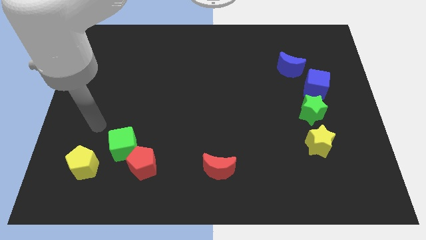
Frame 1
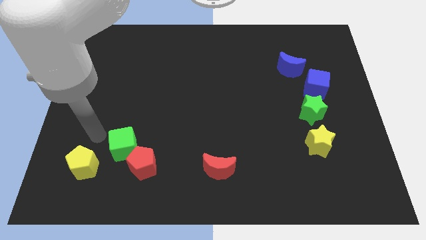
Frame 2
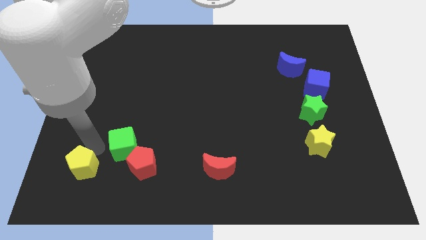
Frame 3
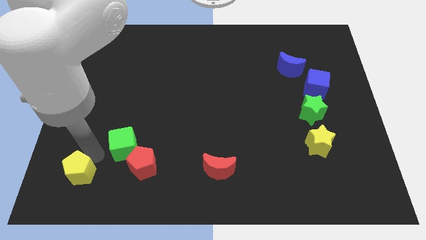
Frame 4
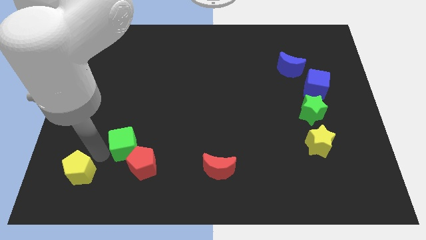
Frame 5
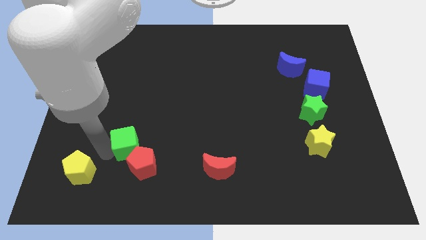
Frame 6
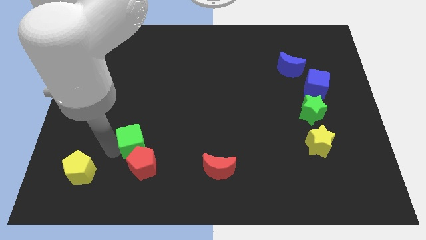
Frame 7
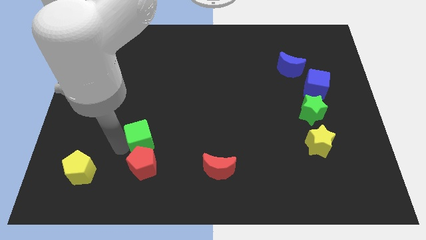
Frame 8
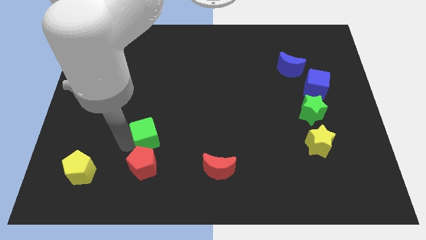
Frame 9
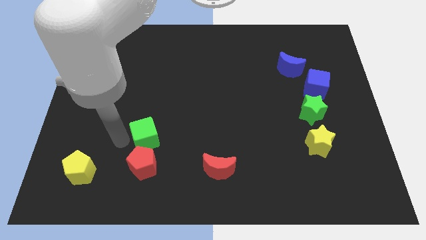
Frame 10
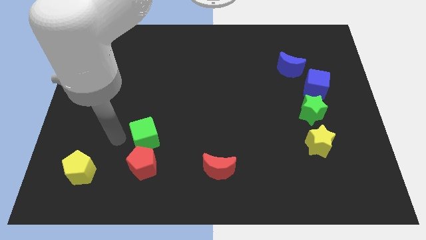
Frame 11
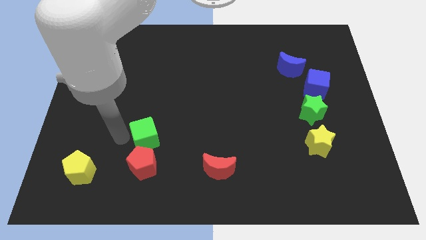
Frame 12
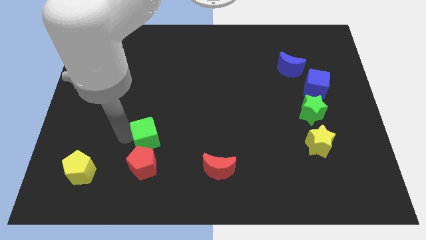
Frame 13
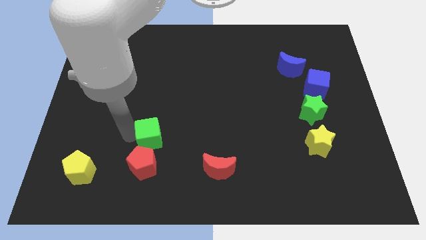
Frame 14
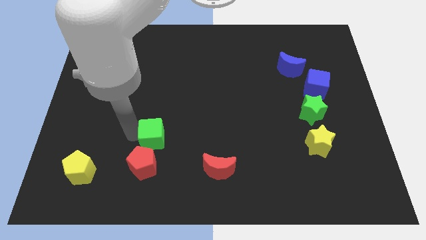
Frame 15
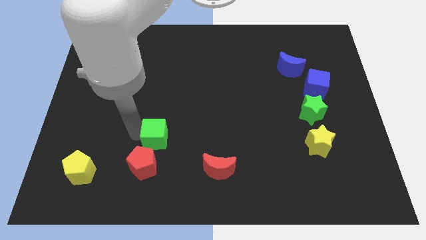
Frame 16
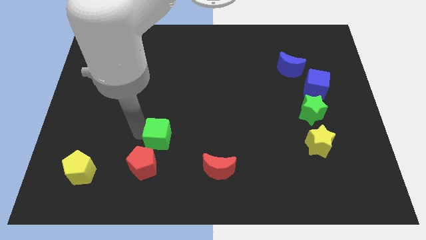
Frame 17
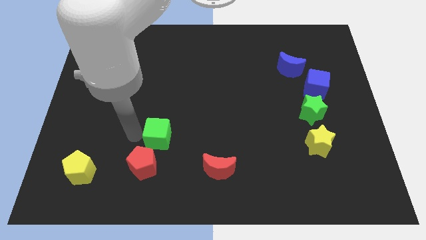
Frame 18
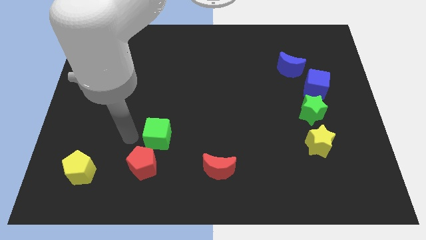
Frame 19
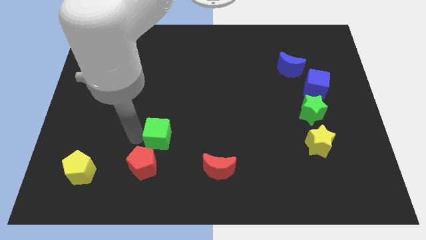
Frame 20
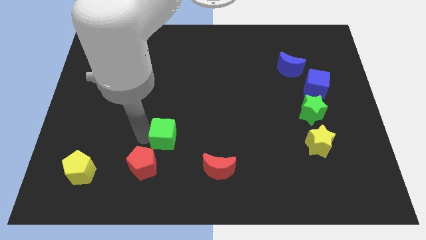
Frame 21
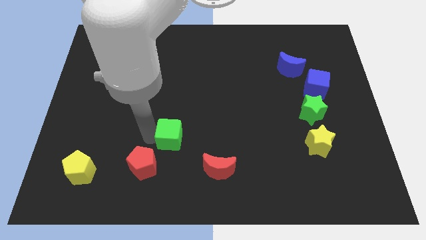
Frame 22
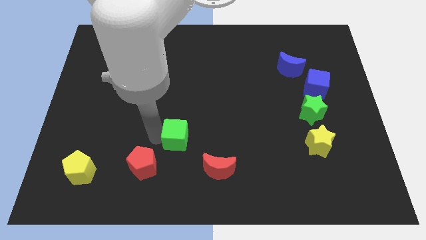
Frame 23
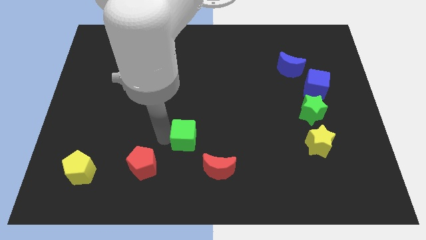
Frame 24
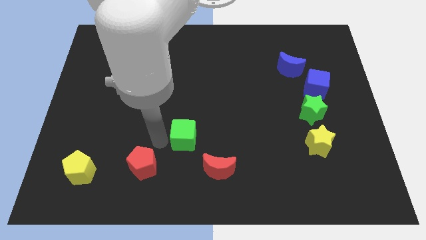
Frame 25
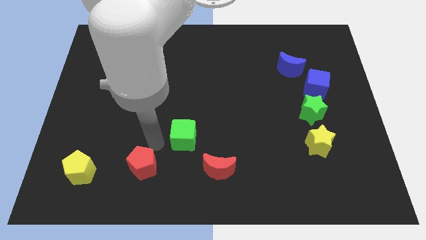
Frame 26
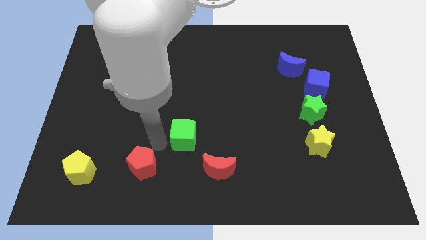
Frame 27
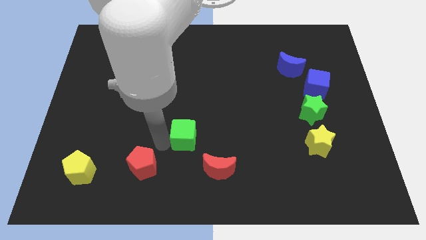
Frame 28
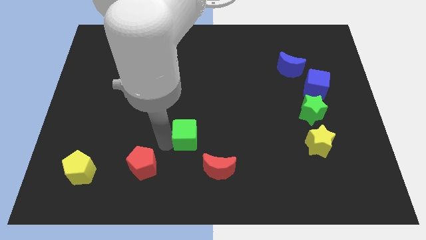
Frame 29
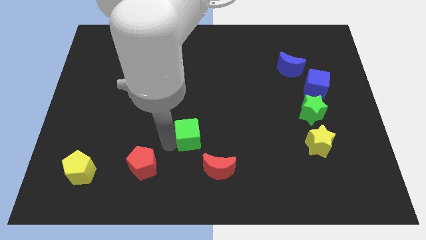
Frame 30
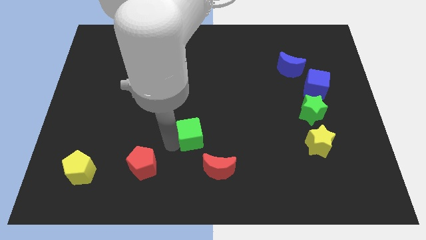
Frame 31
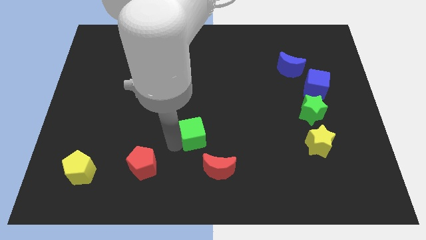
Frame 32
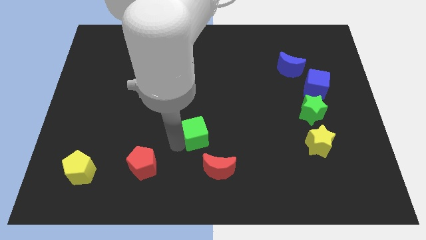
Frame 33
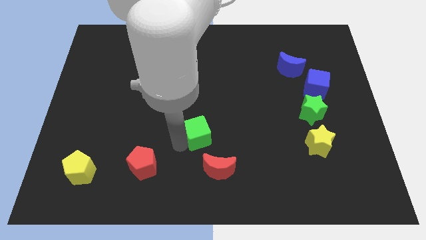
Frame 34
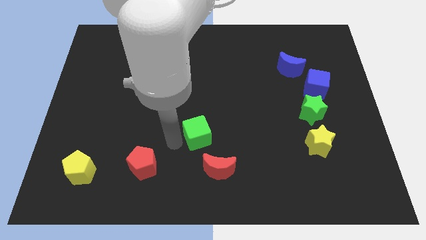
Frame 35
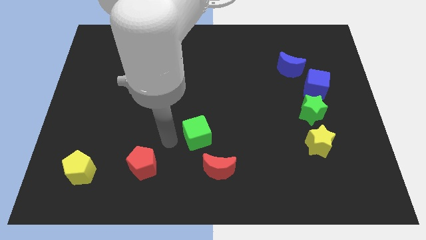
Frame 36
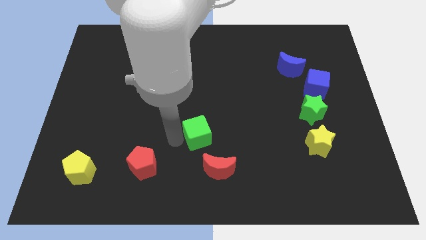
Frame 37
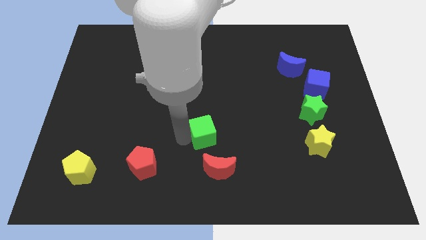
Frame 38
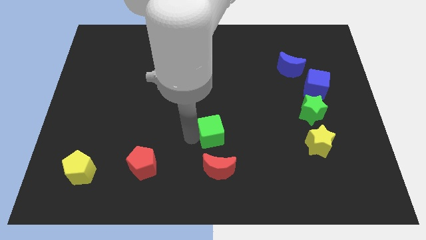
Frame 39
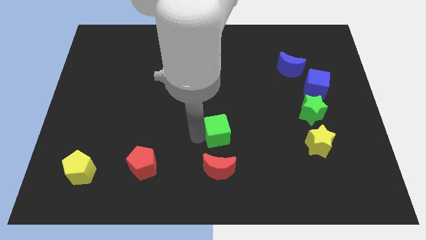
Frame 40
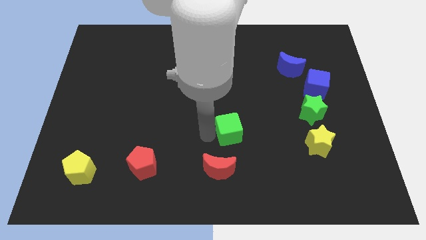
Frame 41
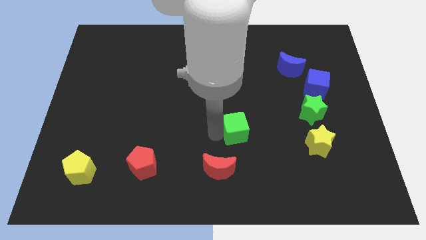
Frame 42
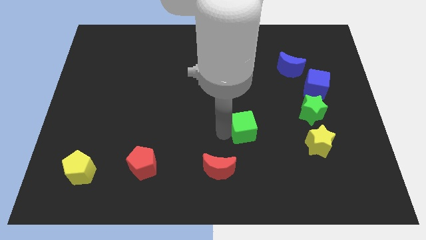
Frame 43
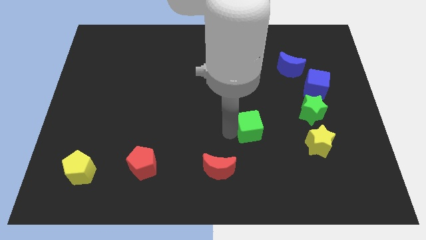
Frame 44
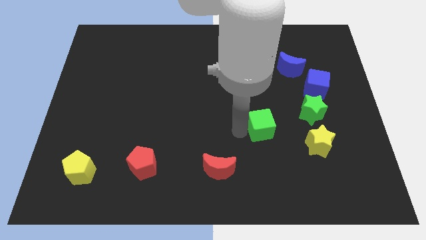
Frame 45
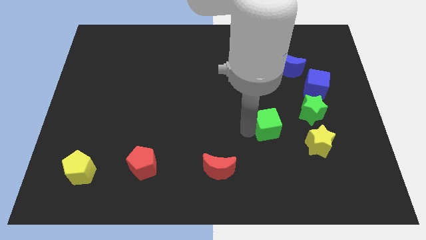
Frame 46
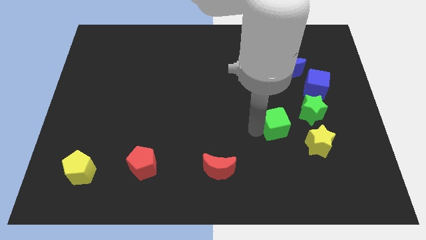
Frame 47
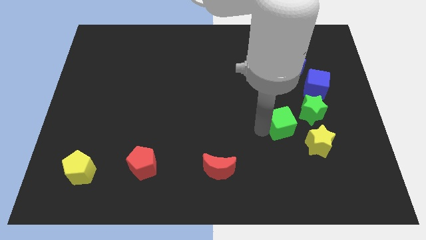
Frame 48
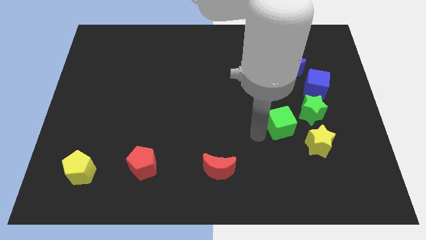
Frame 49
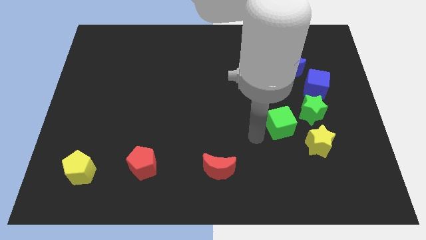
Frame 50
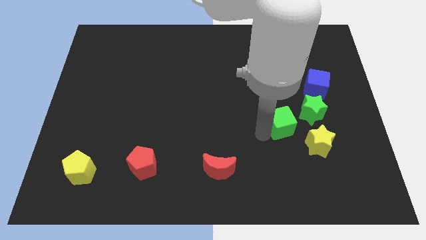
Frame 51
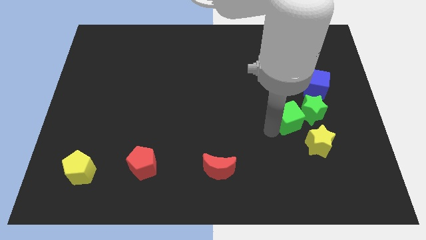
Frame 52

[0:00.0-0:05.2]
move the green cube close to the green star

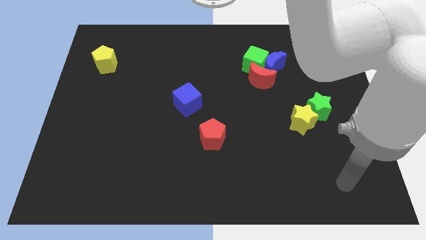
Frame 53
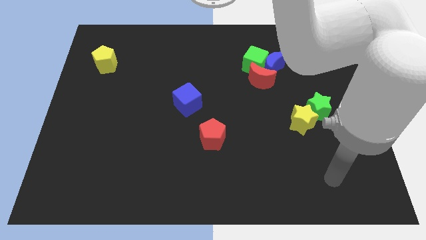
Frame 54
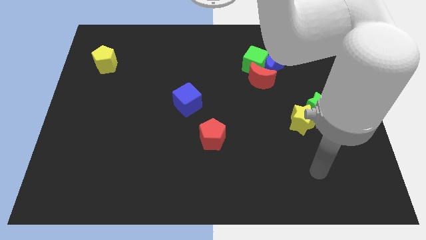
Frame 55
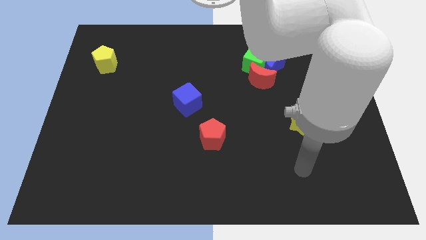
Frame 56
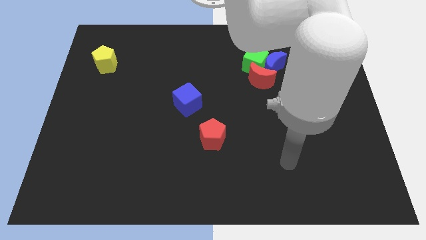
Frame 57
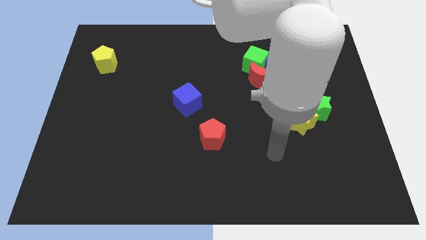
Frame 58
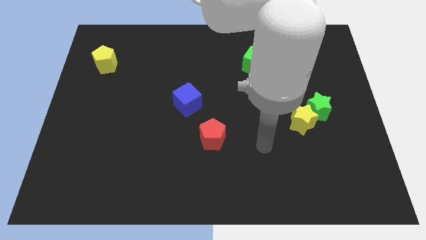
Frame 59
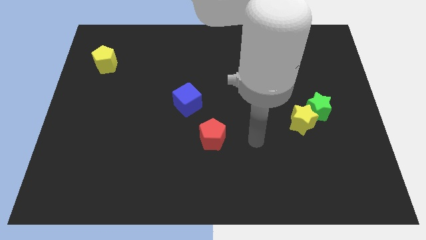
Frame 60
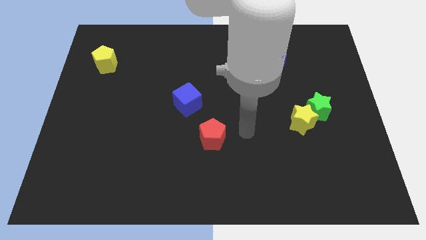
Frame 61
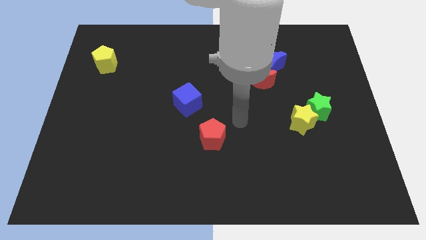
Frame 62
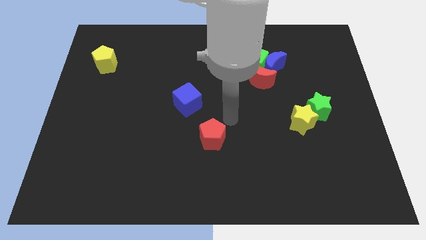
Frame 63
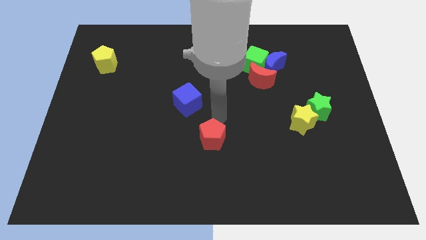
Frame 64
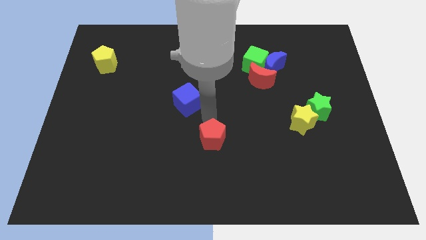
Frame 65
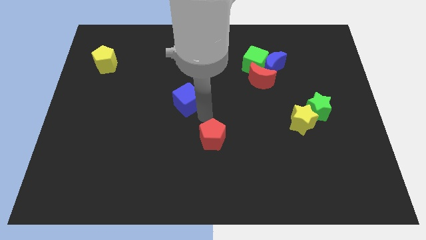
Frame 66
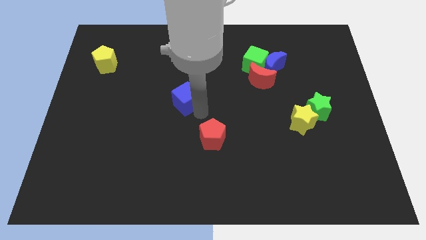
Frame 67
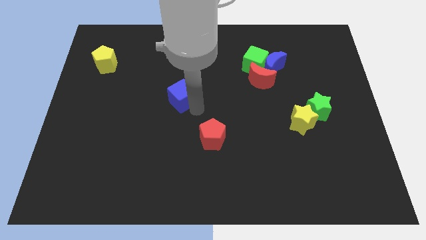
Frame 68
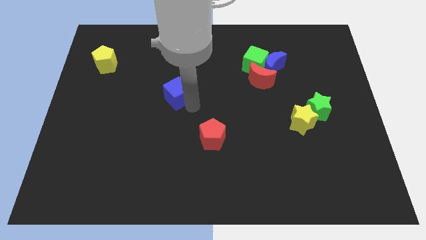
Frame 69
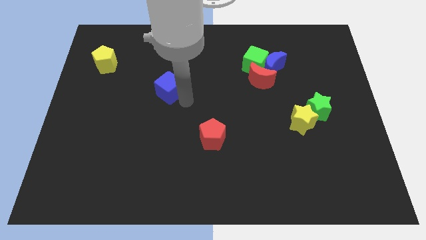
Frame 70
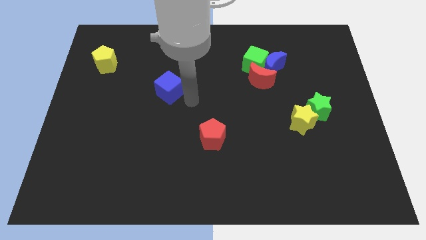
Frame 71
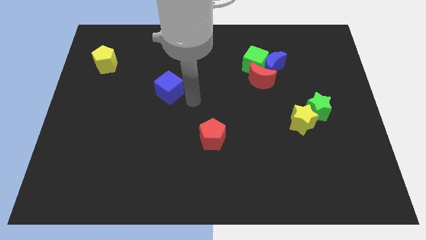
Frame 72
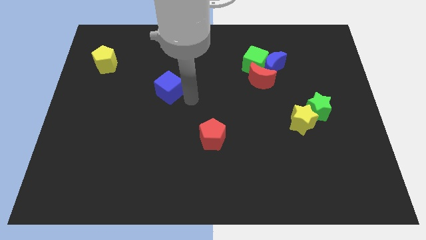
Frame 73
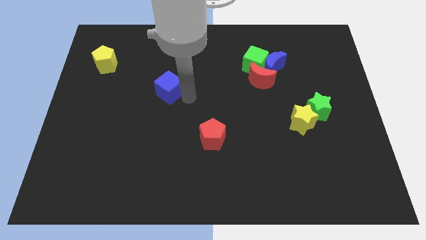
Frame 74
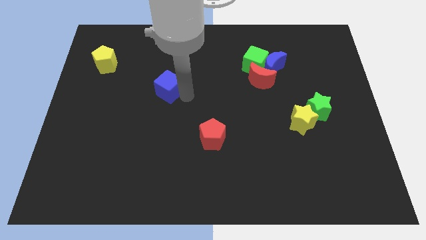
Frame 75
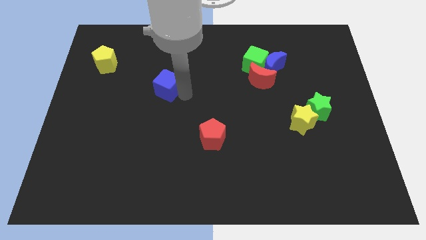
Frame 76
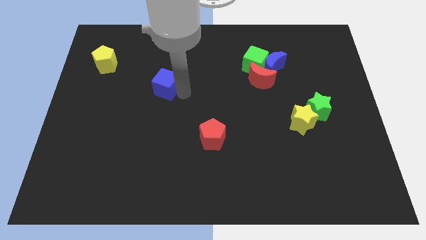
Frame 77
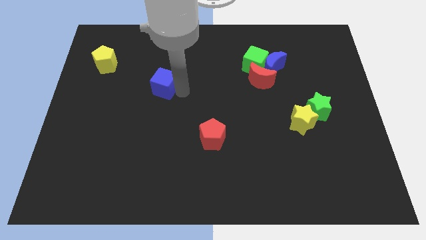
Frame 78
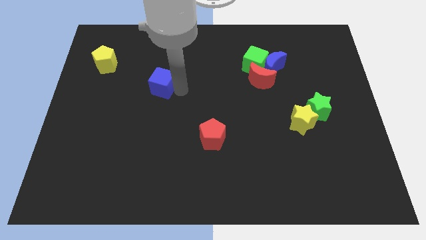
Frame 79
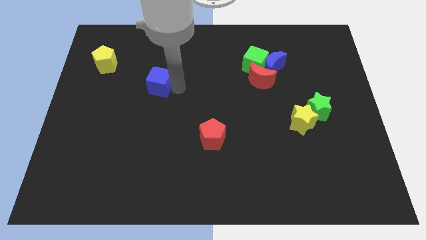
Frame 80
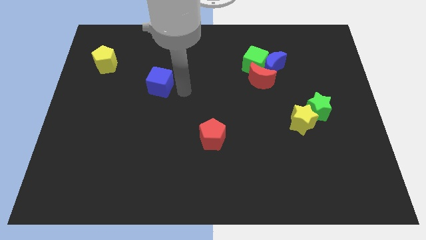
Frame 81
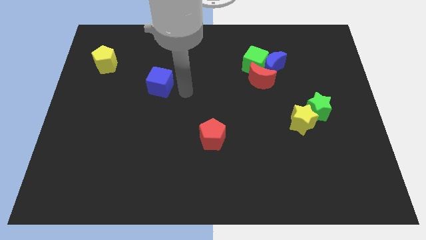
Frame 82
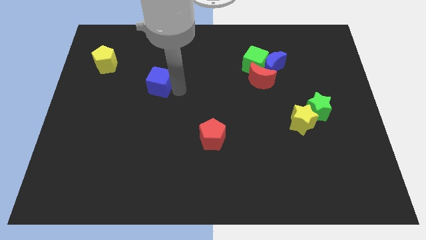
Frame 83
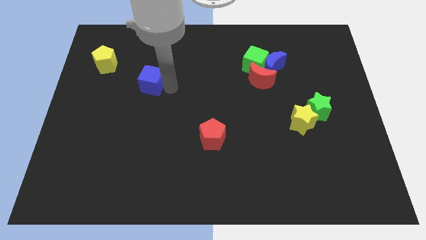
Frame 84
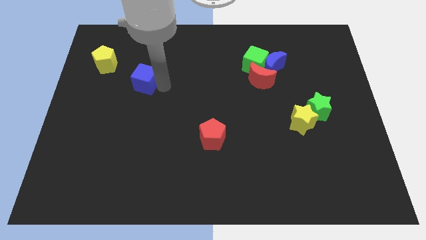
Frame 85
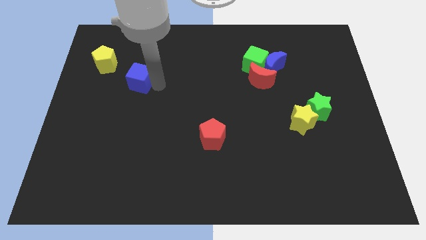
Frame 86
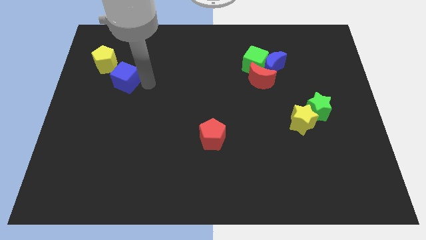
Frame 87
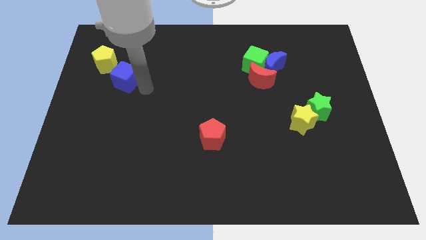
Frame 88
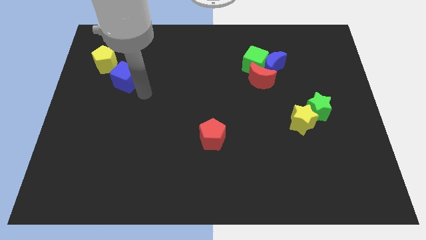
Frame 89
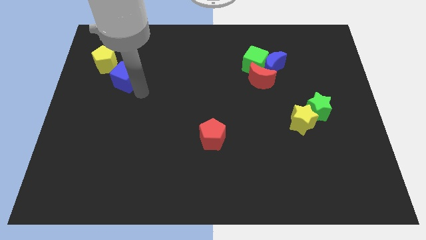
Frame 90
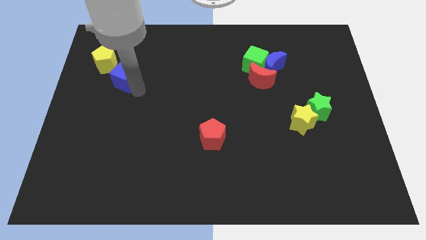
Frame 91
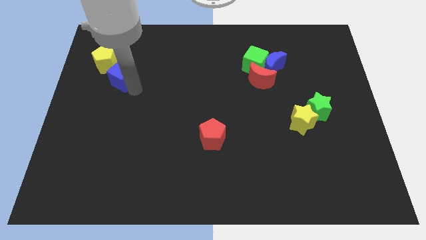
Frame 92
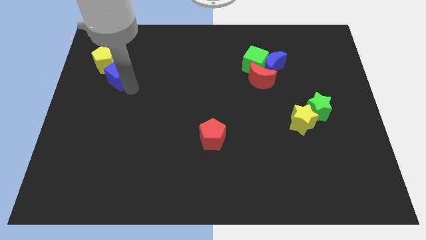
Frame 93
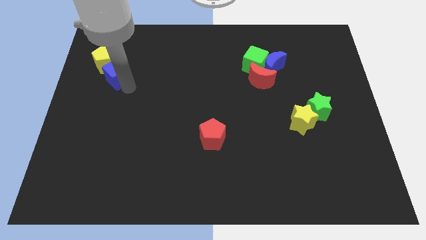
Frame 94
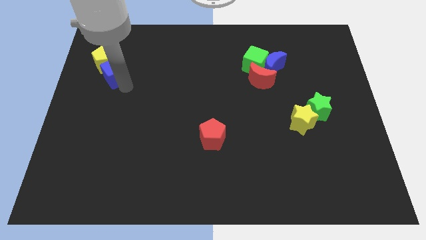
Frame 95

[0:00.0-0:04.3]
put the blue cube close to the yellow pentagon
